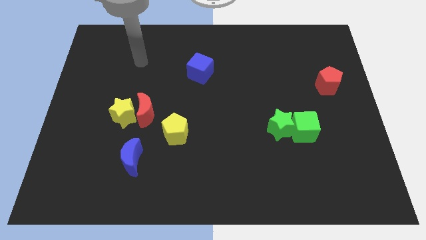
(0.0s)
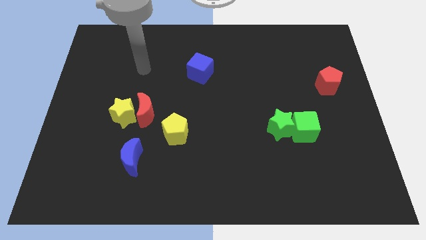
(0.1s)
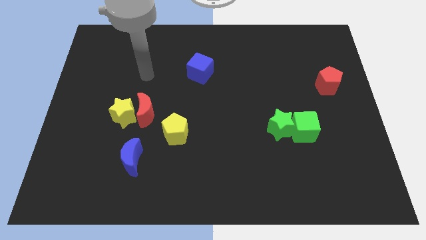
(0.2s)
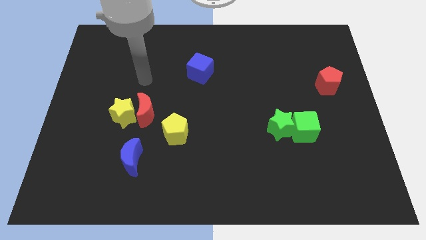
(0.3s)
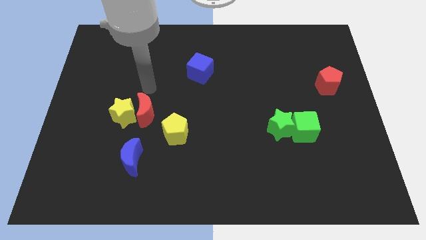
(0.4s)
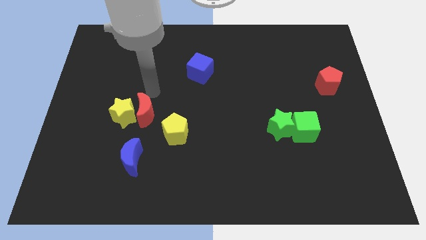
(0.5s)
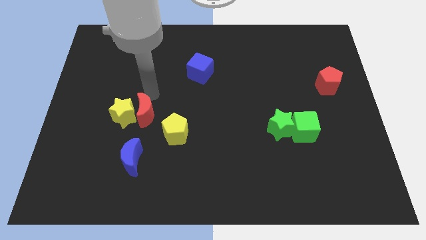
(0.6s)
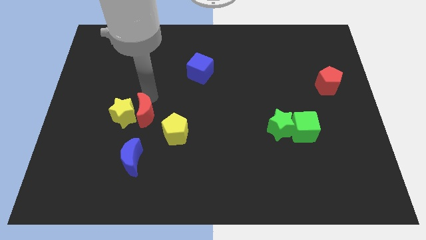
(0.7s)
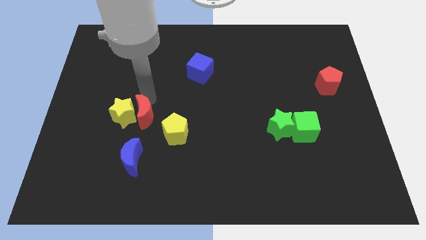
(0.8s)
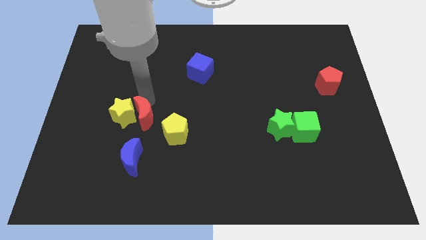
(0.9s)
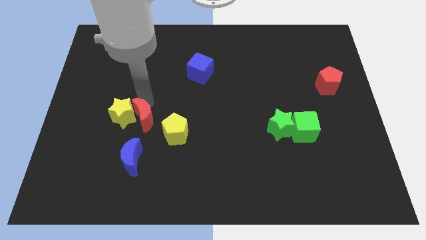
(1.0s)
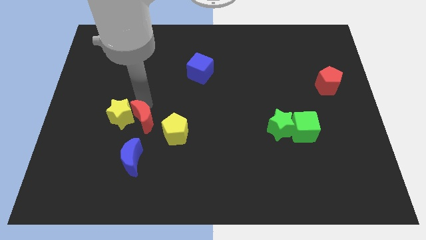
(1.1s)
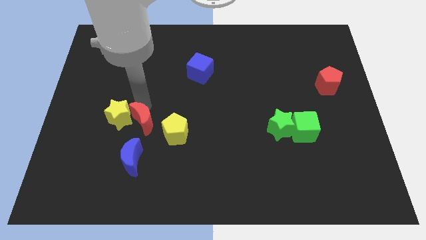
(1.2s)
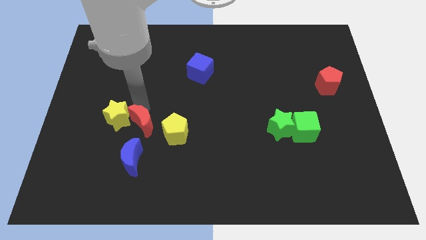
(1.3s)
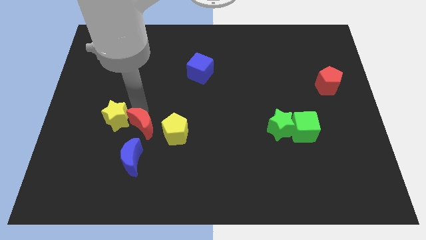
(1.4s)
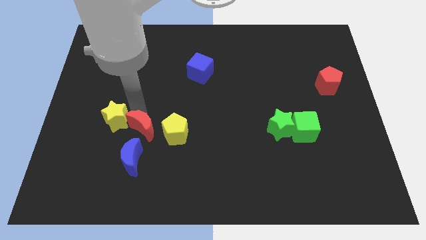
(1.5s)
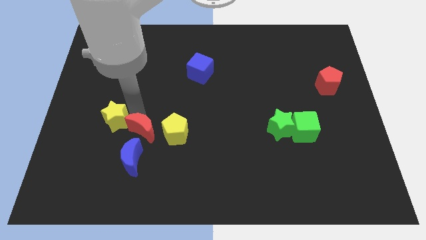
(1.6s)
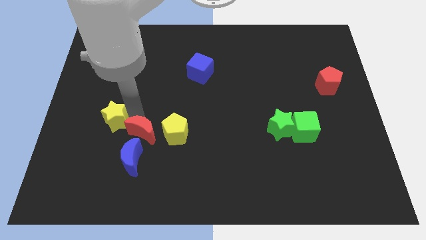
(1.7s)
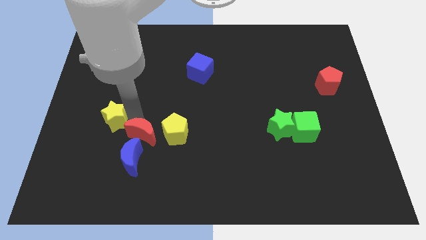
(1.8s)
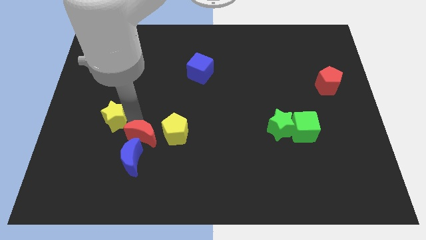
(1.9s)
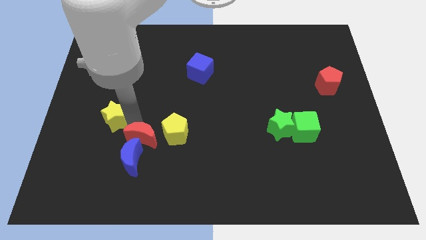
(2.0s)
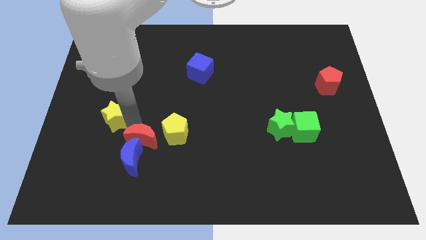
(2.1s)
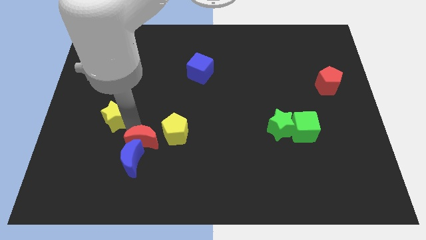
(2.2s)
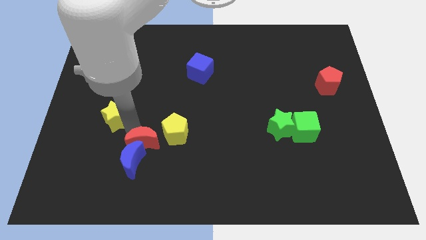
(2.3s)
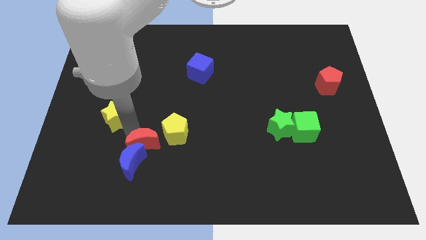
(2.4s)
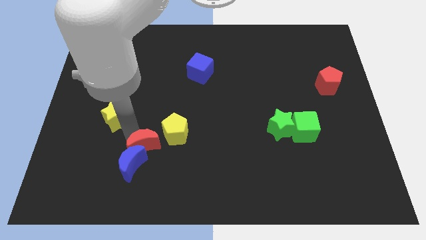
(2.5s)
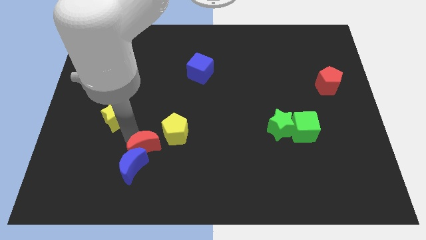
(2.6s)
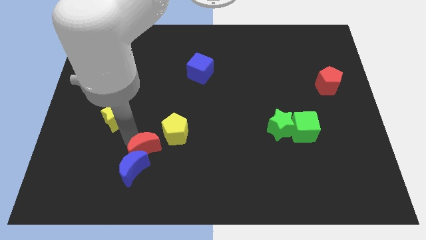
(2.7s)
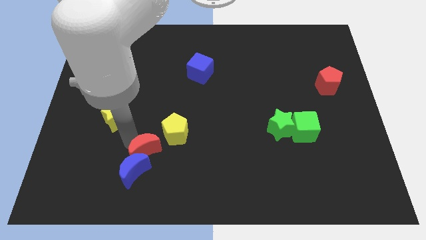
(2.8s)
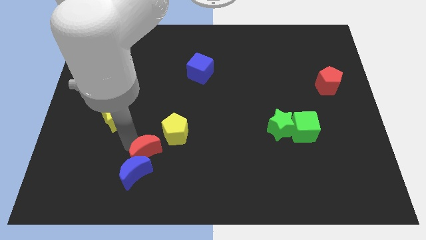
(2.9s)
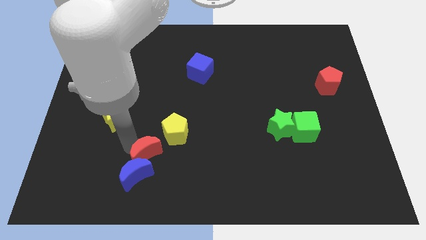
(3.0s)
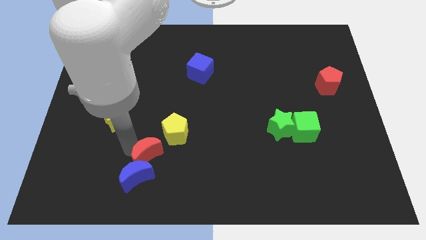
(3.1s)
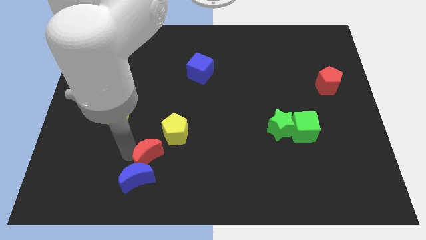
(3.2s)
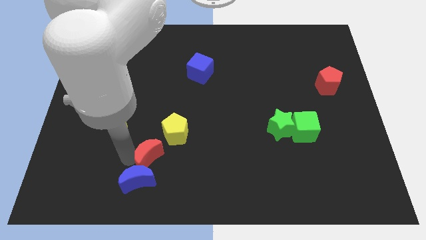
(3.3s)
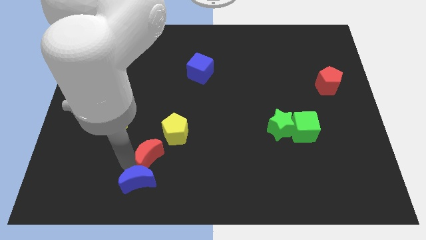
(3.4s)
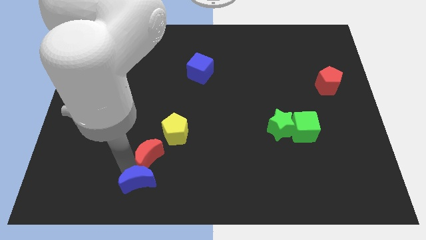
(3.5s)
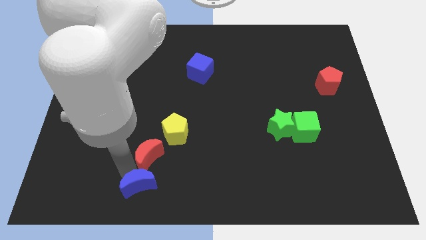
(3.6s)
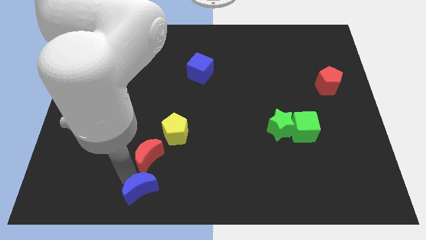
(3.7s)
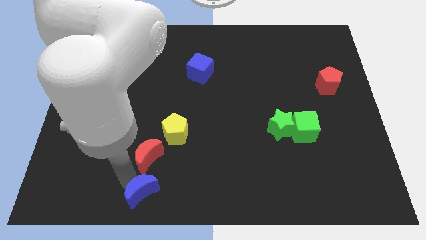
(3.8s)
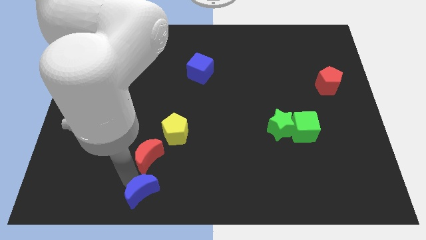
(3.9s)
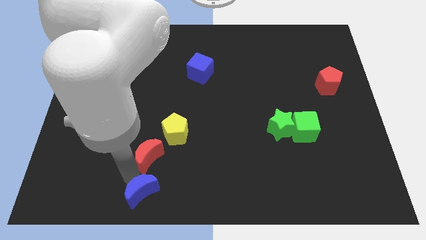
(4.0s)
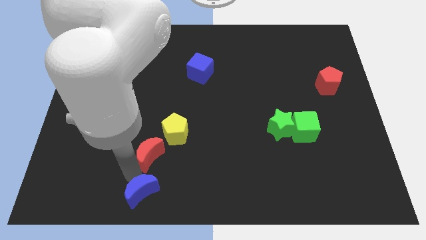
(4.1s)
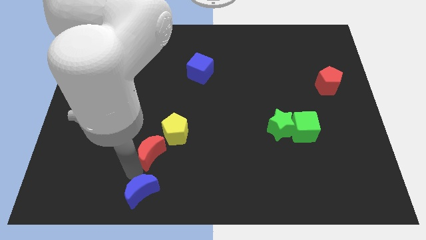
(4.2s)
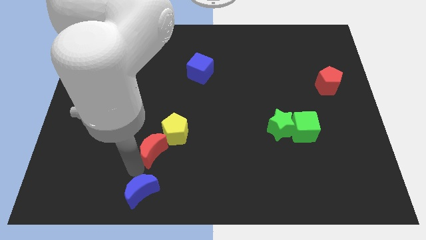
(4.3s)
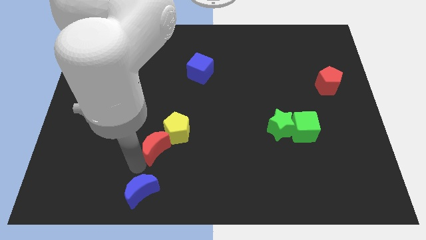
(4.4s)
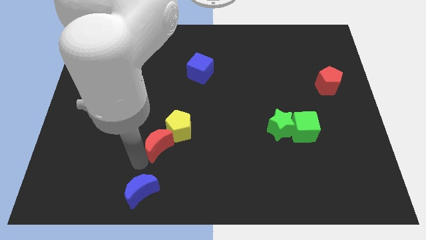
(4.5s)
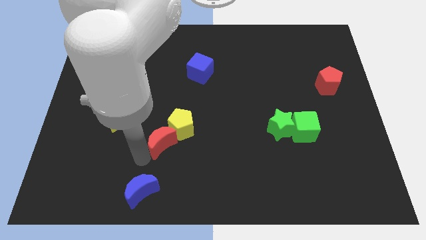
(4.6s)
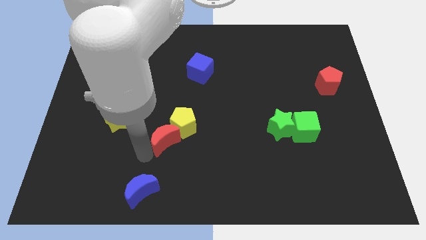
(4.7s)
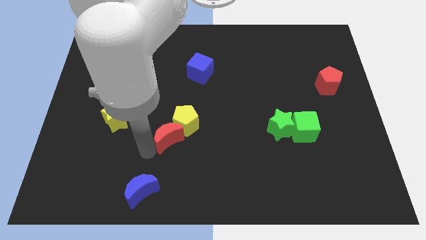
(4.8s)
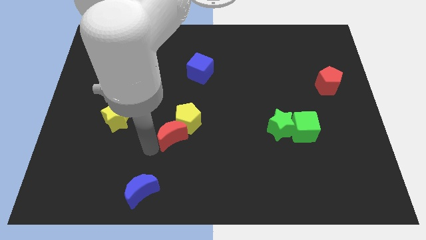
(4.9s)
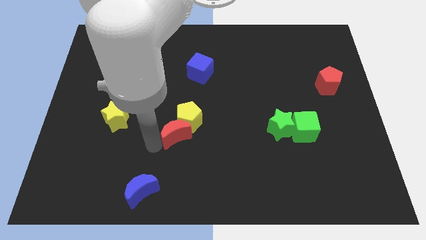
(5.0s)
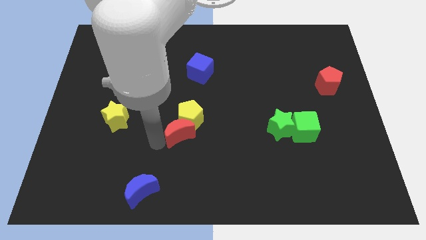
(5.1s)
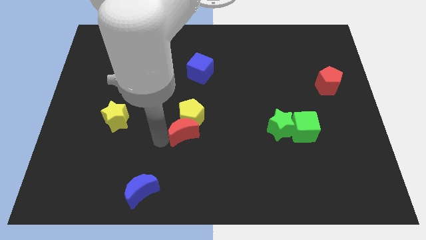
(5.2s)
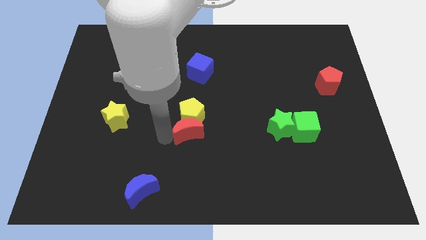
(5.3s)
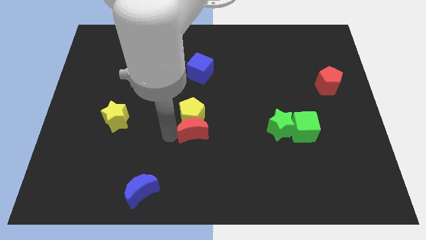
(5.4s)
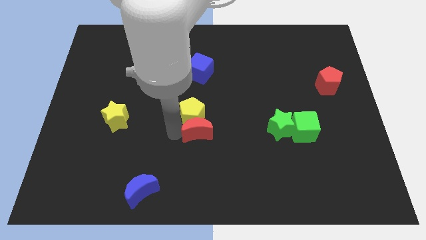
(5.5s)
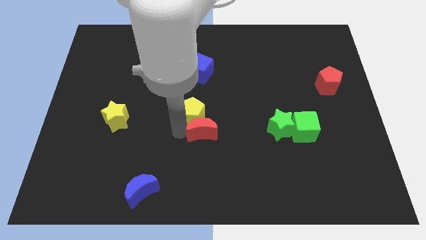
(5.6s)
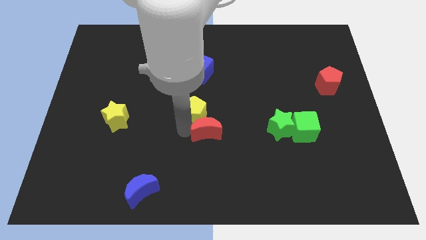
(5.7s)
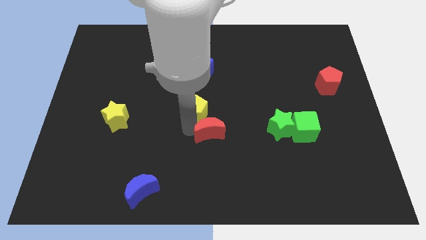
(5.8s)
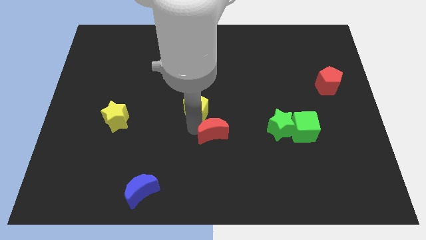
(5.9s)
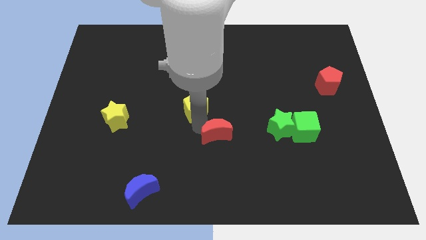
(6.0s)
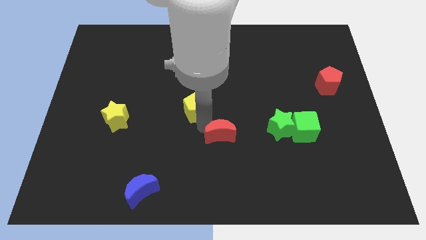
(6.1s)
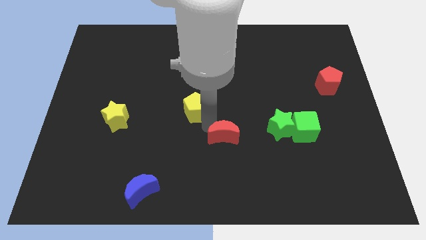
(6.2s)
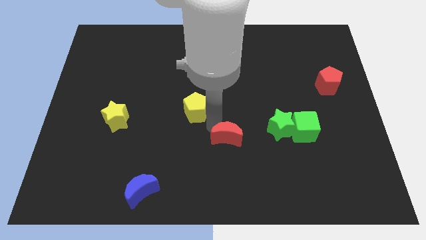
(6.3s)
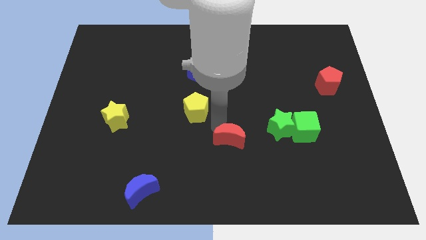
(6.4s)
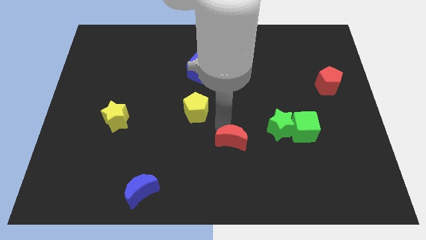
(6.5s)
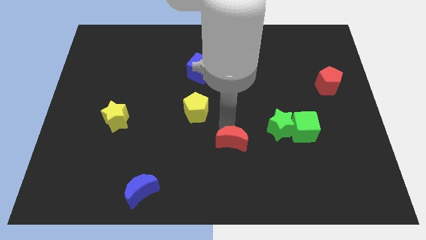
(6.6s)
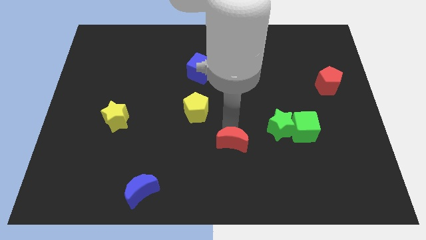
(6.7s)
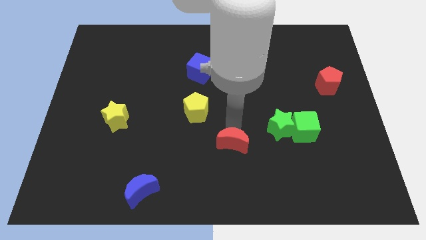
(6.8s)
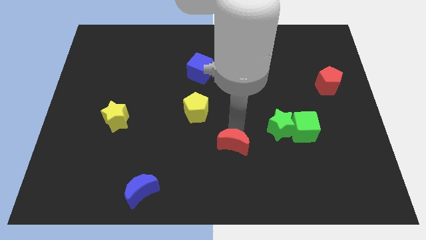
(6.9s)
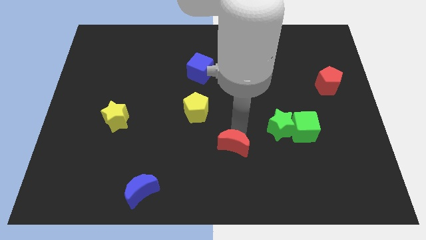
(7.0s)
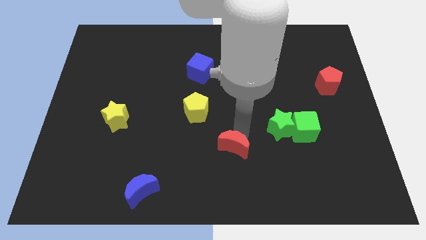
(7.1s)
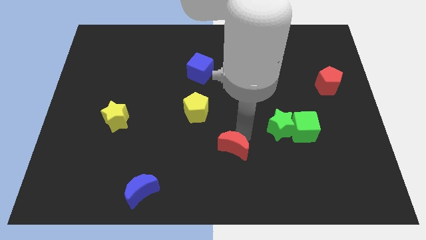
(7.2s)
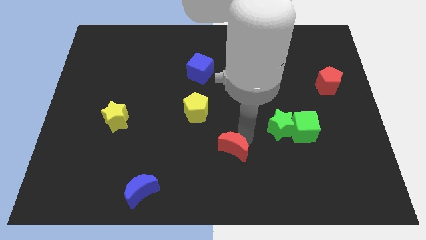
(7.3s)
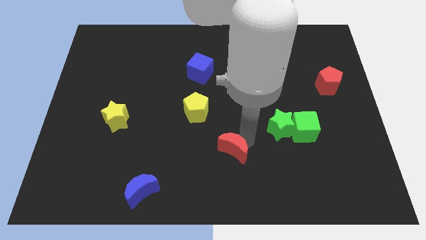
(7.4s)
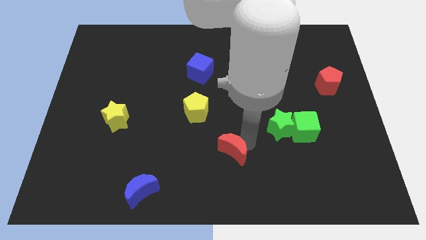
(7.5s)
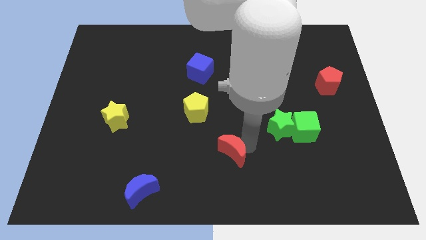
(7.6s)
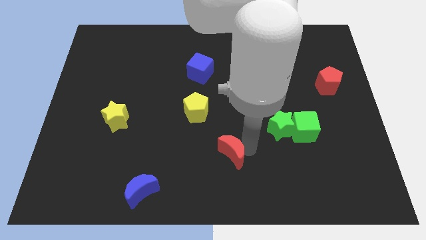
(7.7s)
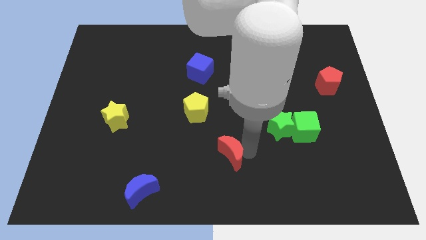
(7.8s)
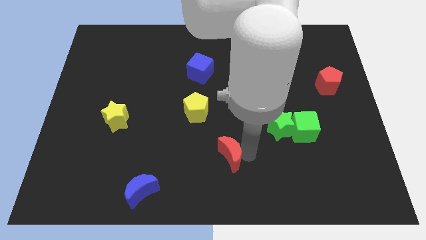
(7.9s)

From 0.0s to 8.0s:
push the red moon to the bottom side
